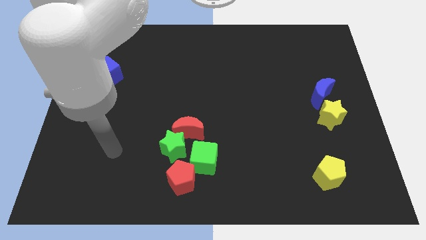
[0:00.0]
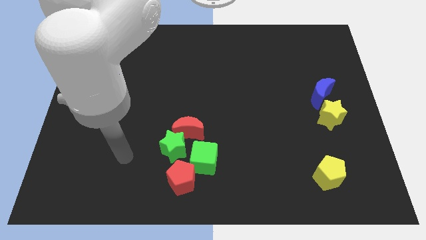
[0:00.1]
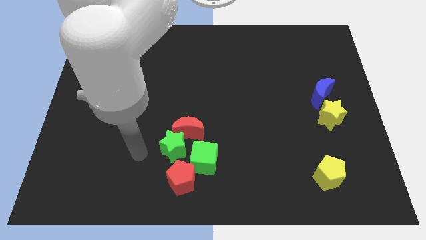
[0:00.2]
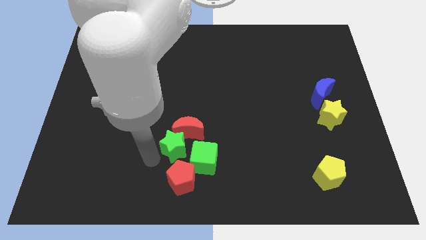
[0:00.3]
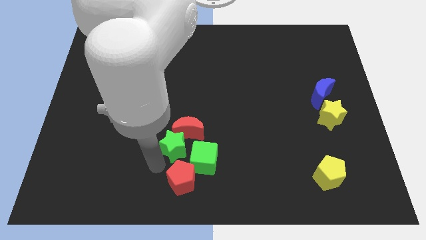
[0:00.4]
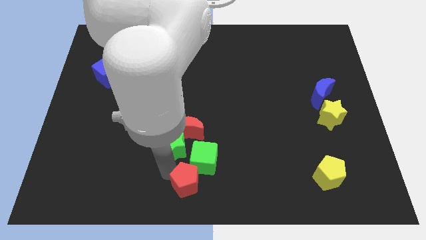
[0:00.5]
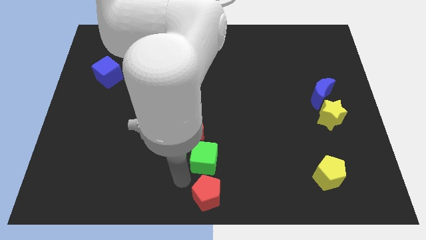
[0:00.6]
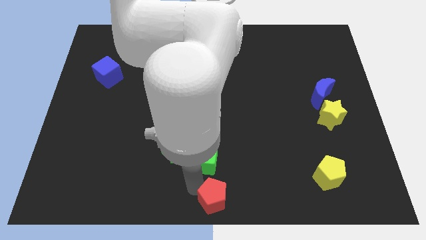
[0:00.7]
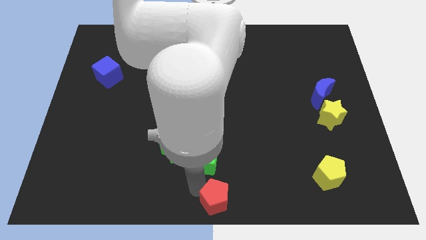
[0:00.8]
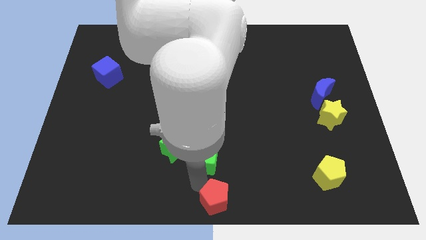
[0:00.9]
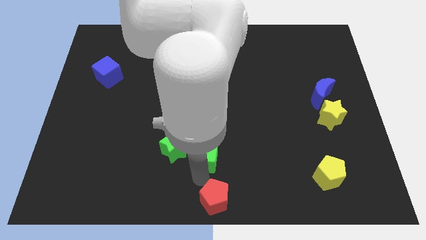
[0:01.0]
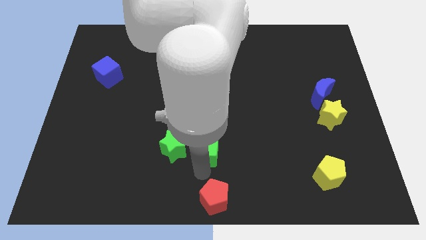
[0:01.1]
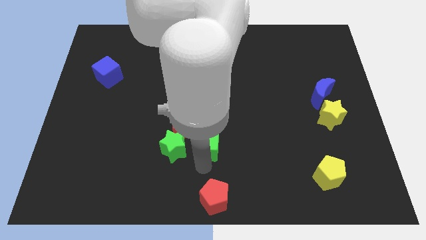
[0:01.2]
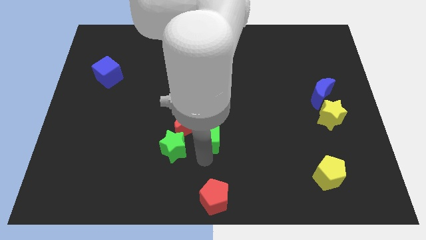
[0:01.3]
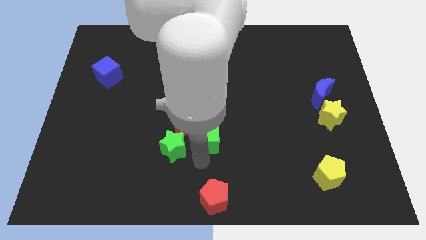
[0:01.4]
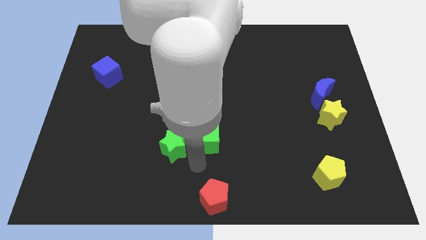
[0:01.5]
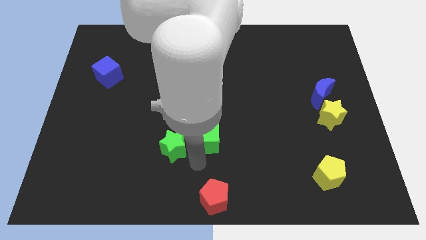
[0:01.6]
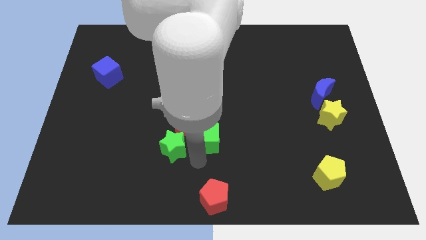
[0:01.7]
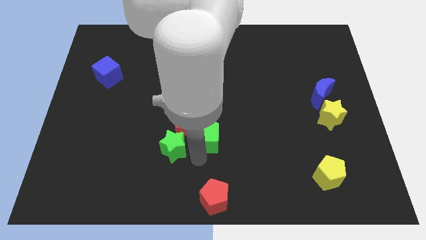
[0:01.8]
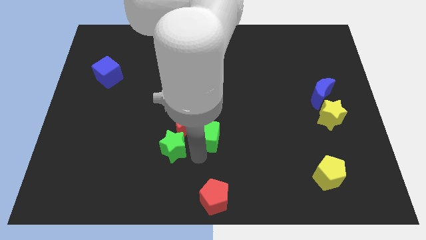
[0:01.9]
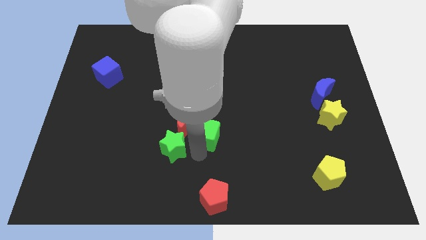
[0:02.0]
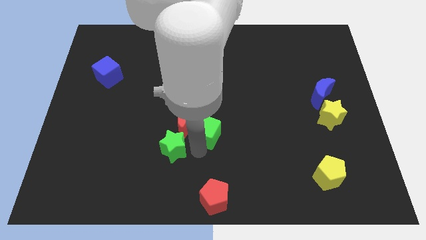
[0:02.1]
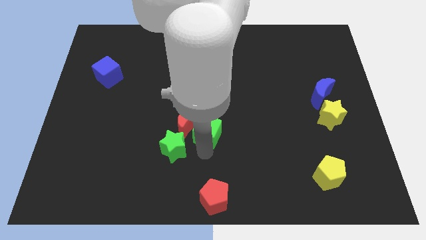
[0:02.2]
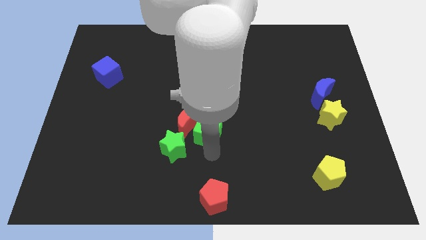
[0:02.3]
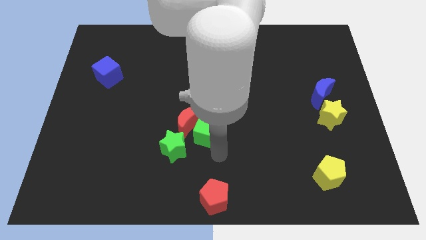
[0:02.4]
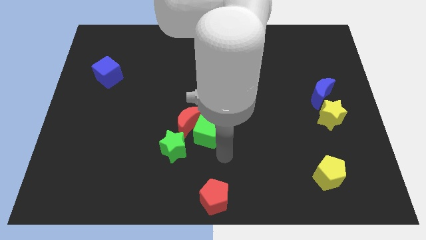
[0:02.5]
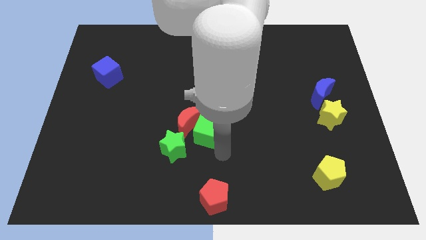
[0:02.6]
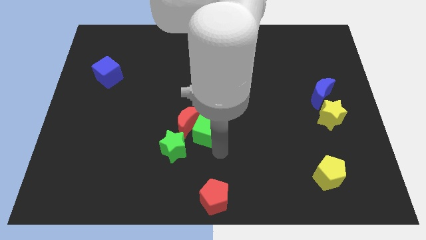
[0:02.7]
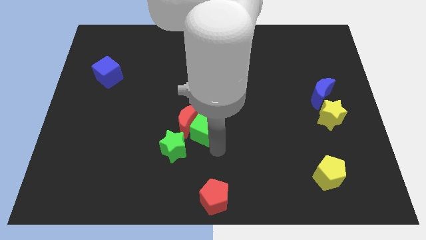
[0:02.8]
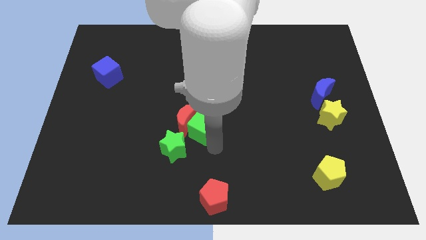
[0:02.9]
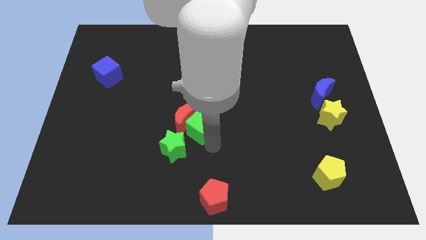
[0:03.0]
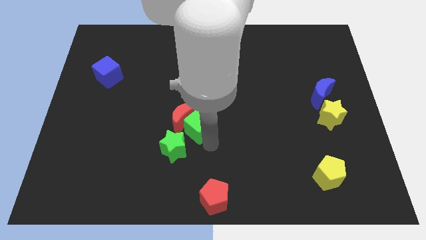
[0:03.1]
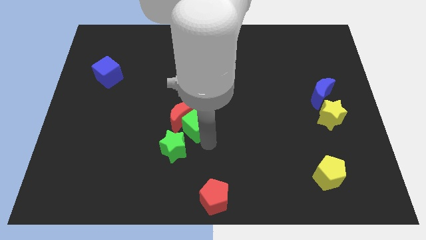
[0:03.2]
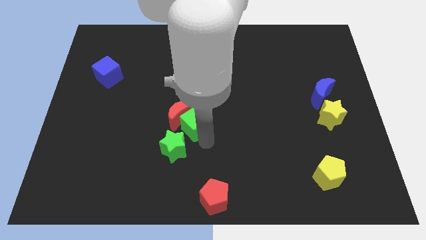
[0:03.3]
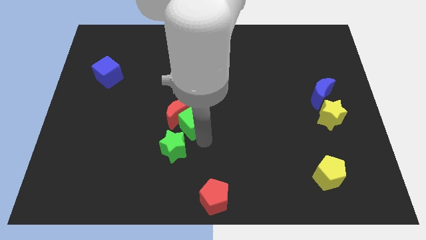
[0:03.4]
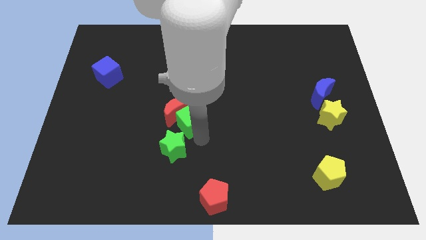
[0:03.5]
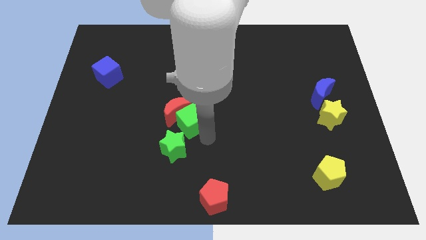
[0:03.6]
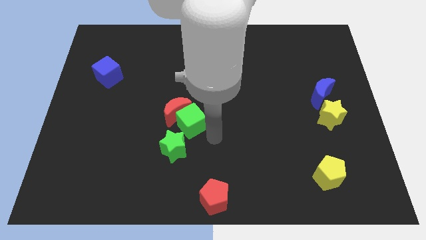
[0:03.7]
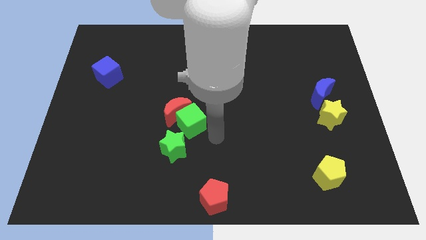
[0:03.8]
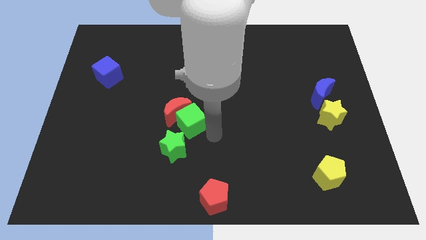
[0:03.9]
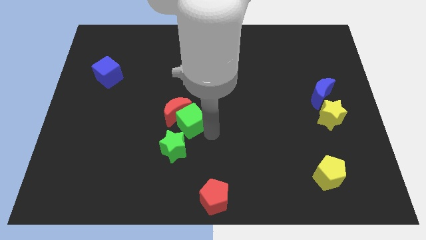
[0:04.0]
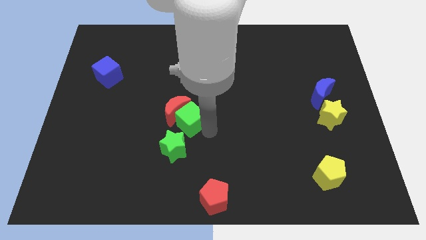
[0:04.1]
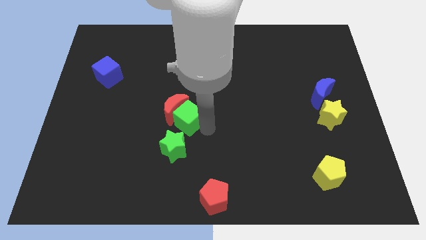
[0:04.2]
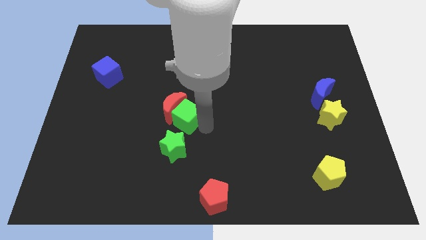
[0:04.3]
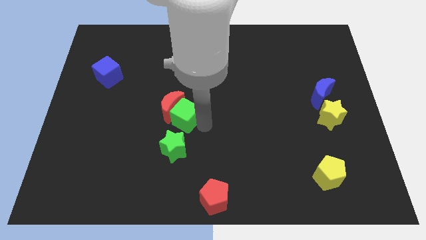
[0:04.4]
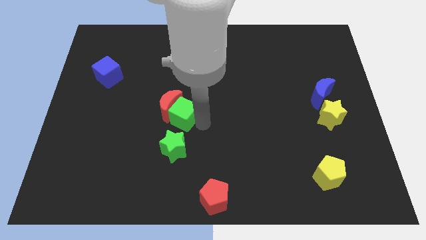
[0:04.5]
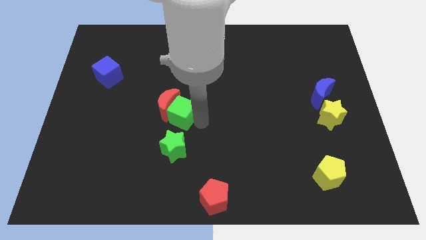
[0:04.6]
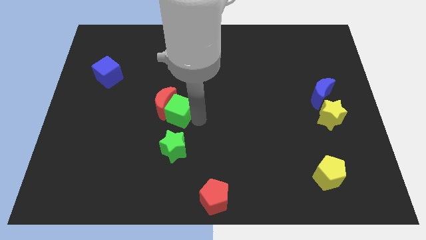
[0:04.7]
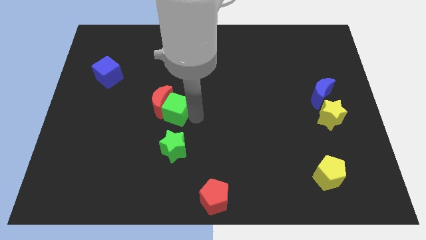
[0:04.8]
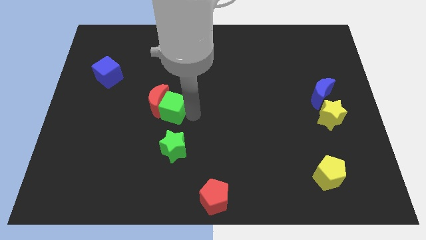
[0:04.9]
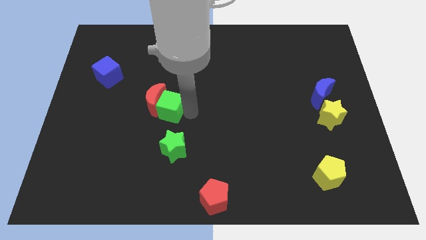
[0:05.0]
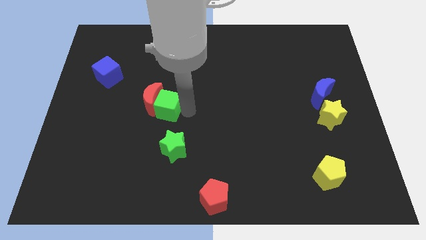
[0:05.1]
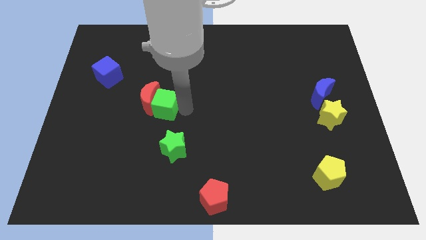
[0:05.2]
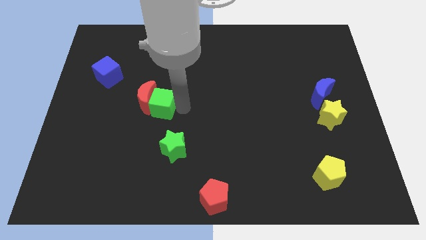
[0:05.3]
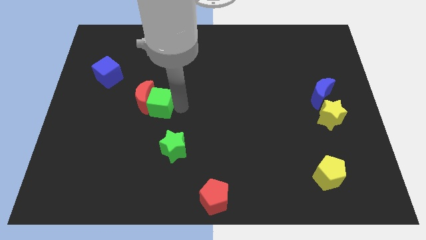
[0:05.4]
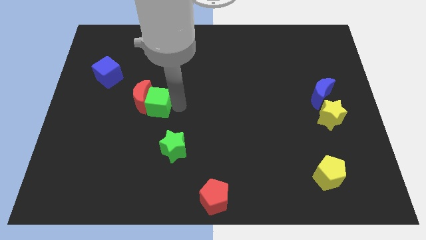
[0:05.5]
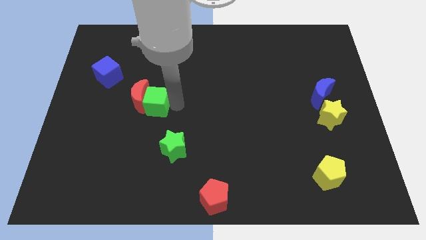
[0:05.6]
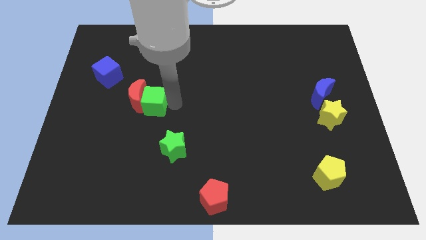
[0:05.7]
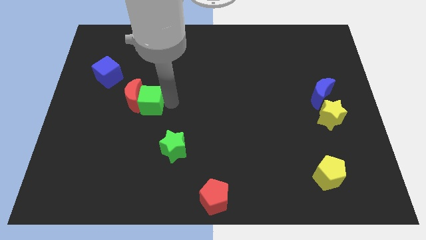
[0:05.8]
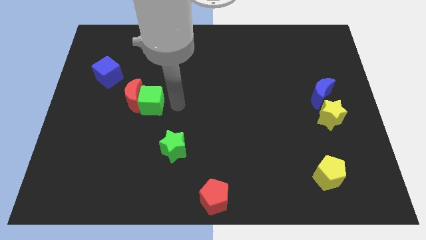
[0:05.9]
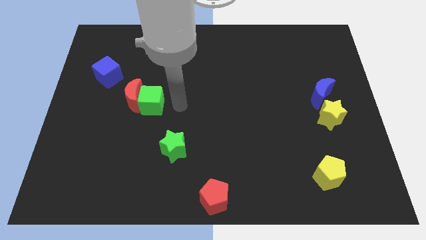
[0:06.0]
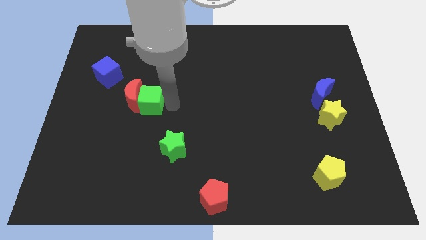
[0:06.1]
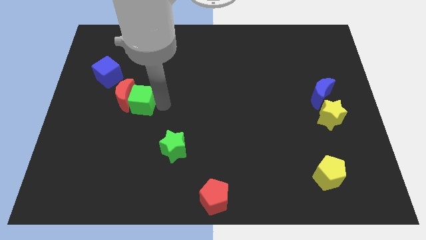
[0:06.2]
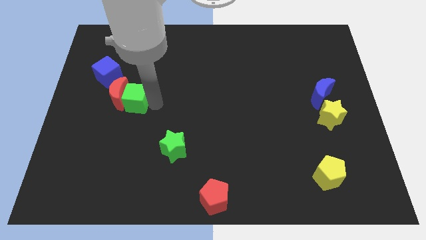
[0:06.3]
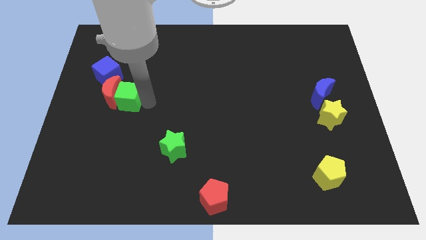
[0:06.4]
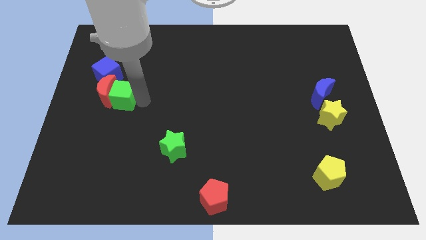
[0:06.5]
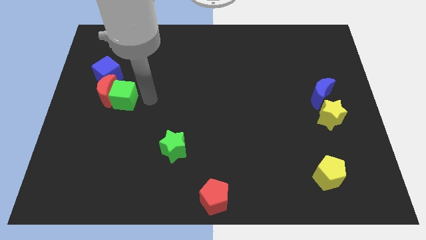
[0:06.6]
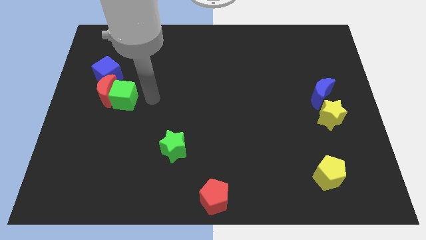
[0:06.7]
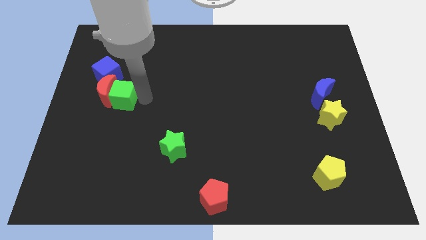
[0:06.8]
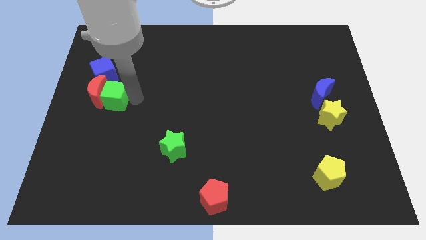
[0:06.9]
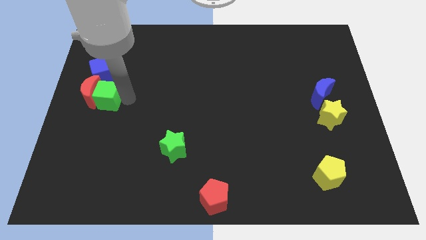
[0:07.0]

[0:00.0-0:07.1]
move the green cube to the center left
